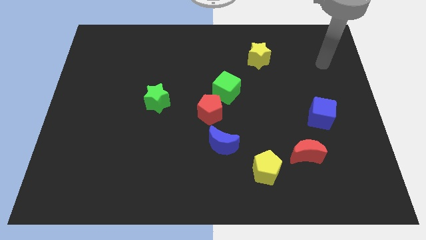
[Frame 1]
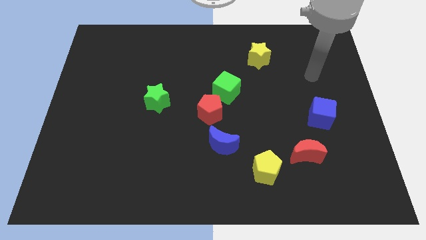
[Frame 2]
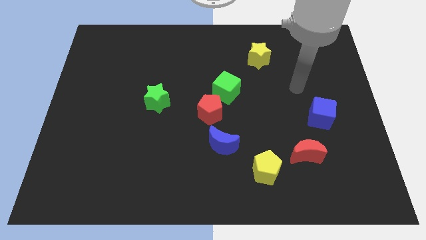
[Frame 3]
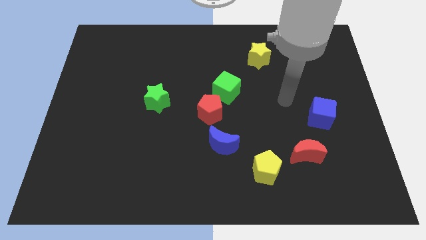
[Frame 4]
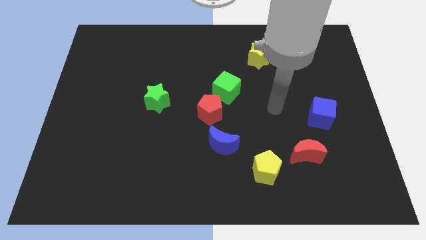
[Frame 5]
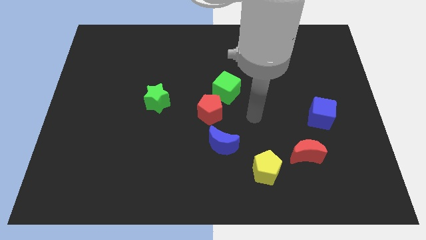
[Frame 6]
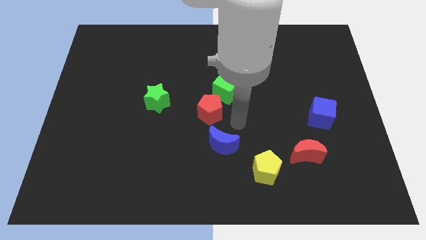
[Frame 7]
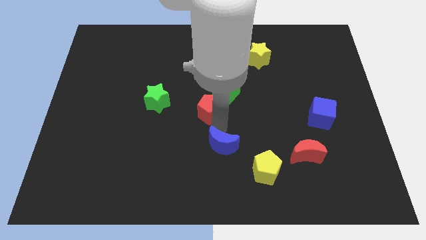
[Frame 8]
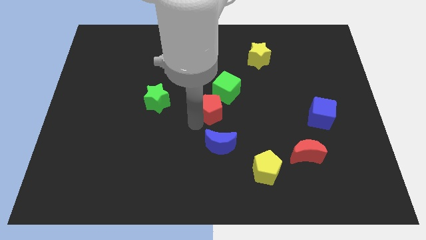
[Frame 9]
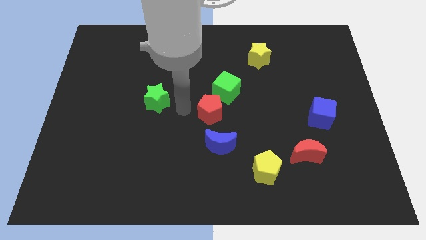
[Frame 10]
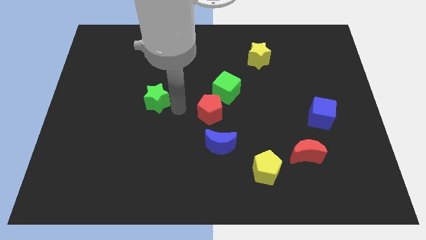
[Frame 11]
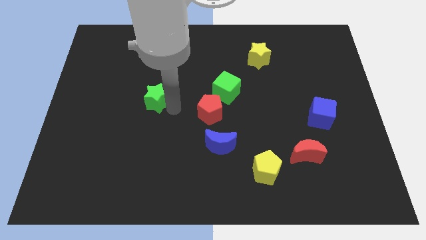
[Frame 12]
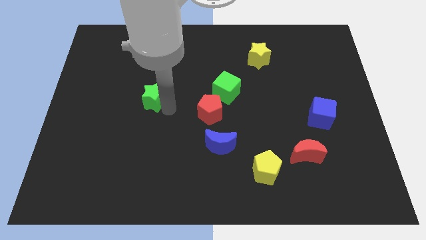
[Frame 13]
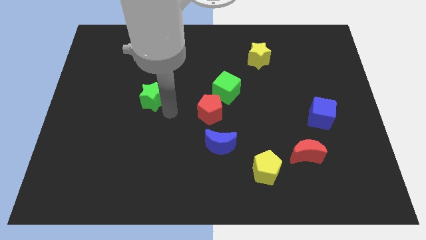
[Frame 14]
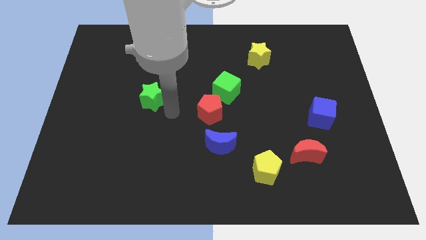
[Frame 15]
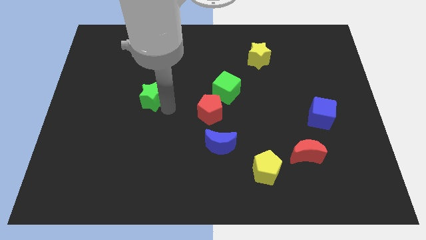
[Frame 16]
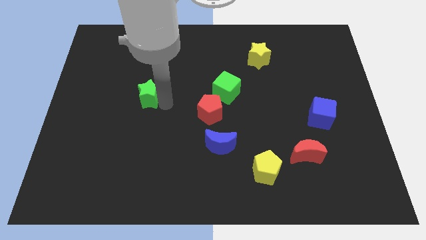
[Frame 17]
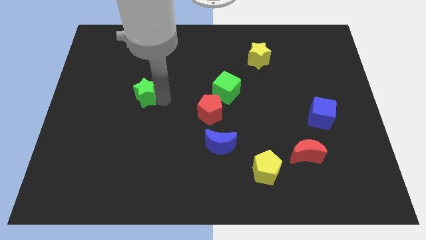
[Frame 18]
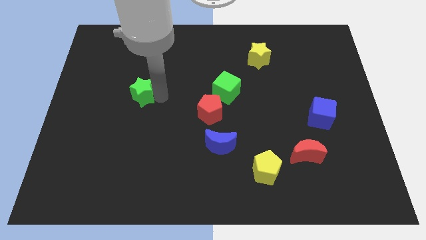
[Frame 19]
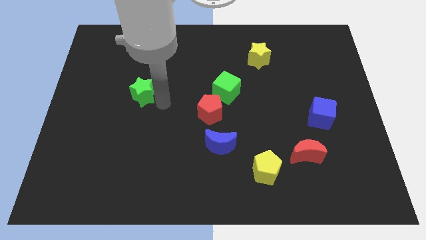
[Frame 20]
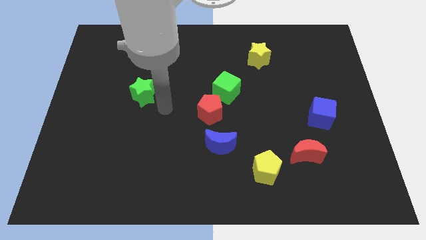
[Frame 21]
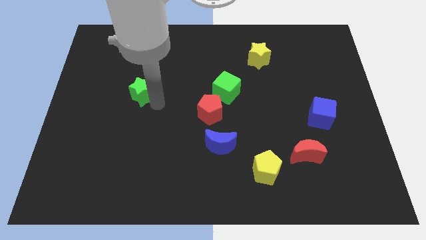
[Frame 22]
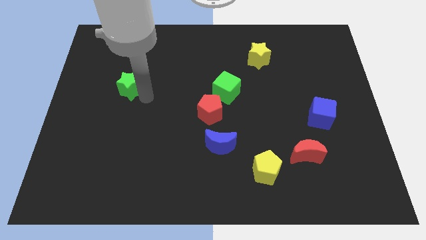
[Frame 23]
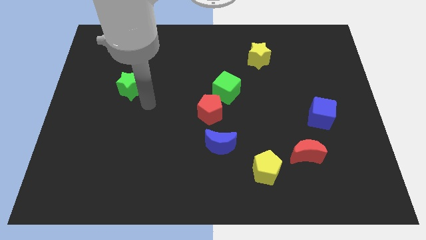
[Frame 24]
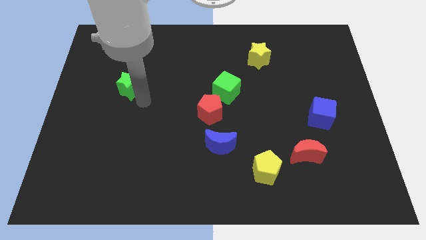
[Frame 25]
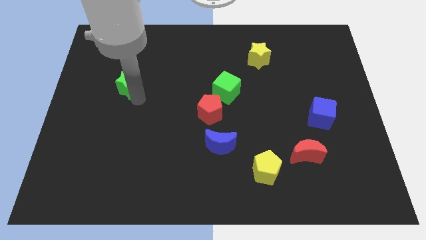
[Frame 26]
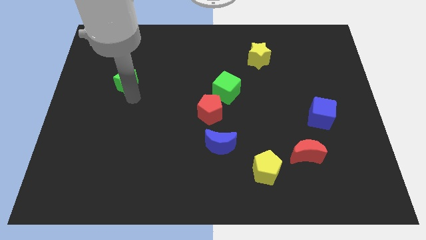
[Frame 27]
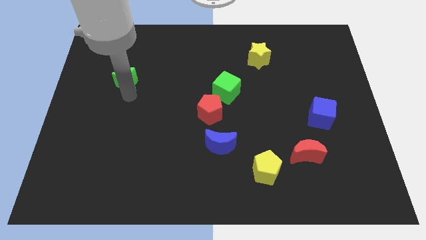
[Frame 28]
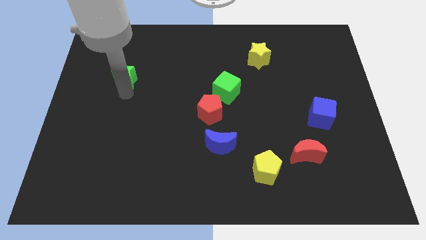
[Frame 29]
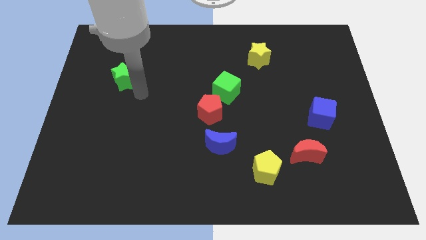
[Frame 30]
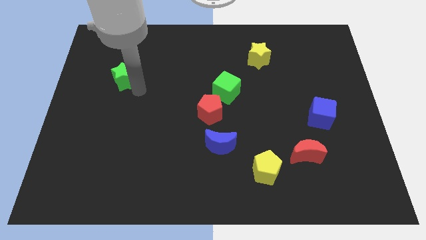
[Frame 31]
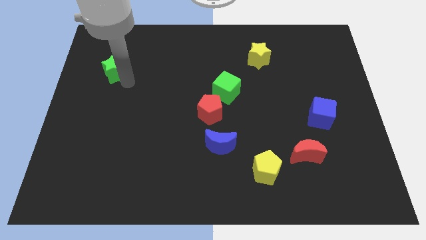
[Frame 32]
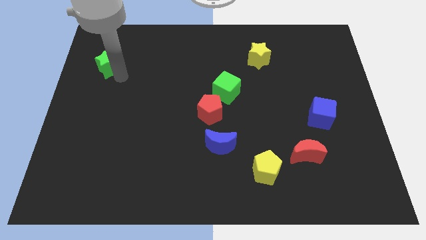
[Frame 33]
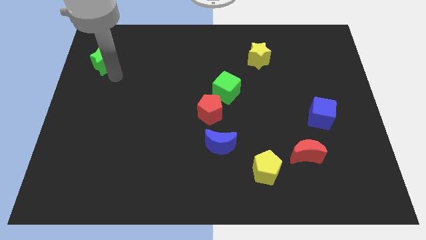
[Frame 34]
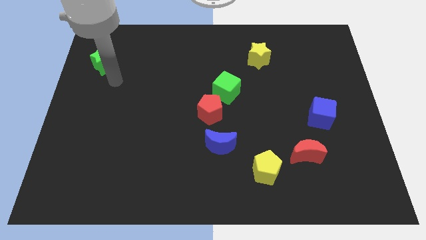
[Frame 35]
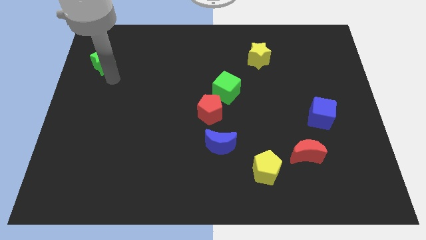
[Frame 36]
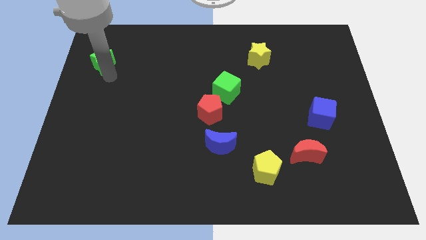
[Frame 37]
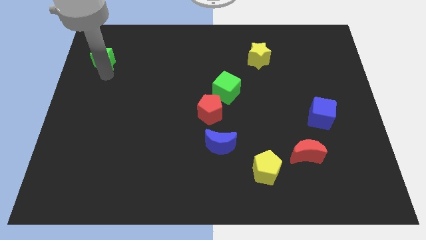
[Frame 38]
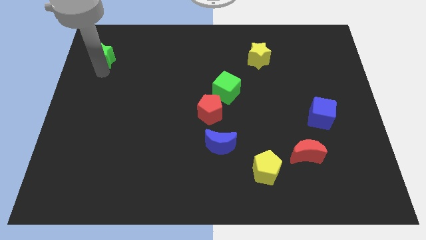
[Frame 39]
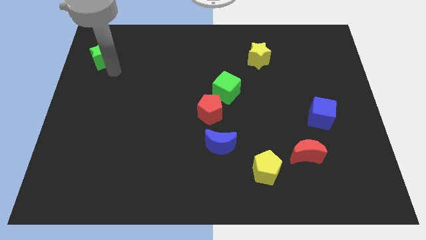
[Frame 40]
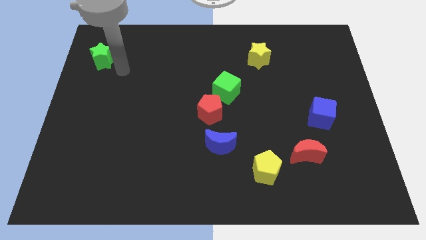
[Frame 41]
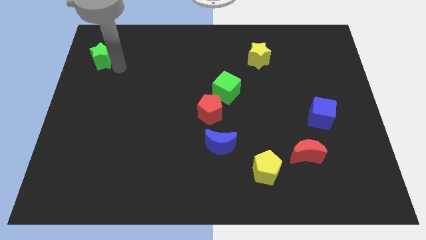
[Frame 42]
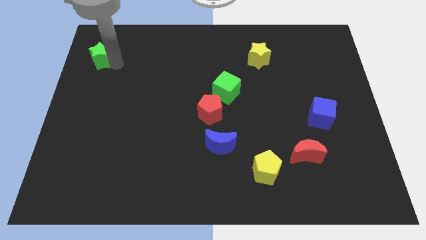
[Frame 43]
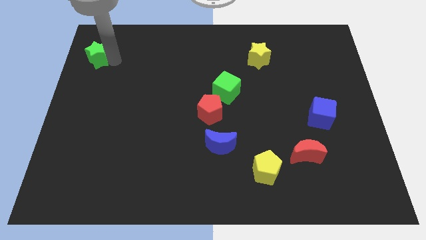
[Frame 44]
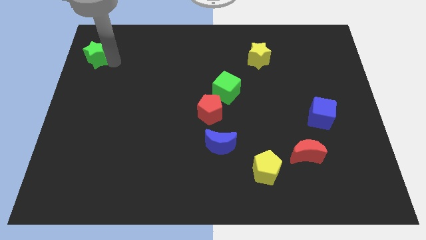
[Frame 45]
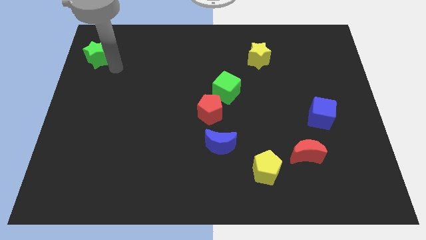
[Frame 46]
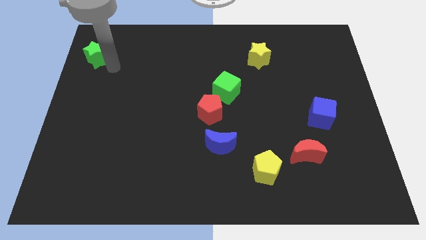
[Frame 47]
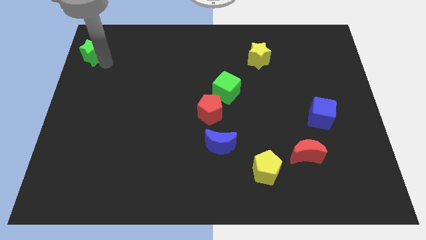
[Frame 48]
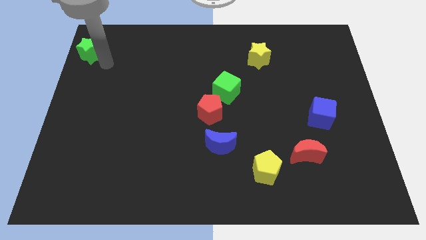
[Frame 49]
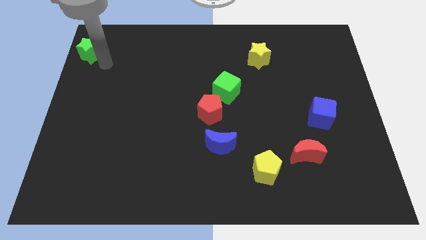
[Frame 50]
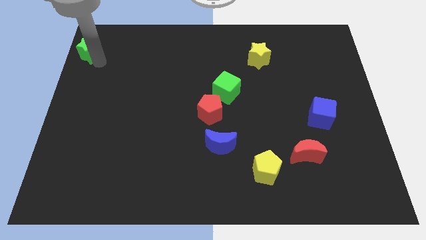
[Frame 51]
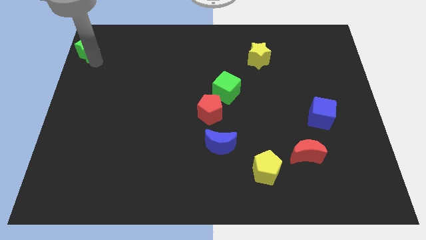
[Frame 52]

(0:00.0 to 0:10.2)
push the green star to the top left of the board

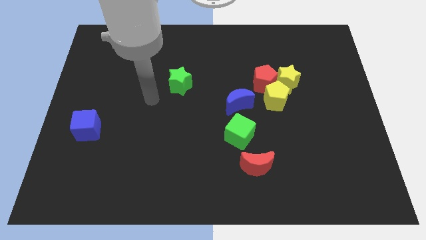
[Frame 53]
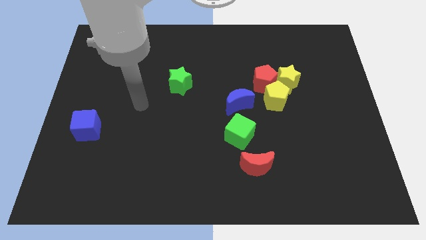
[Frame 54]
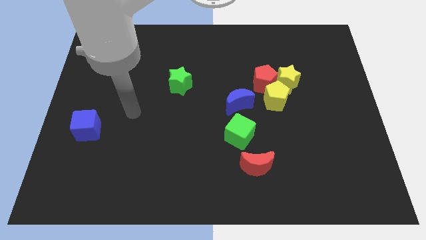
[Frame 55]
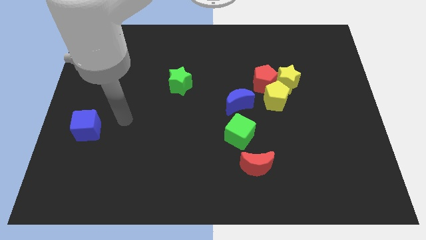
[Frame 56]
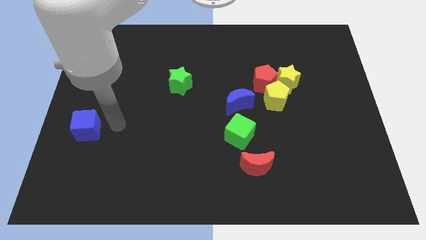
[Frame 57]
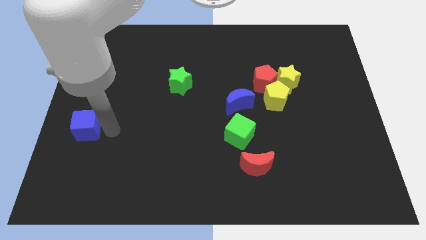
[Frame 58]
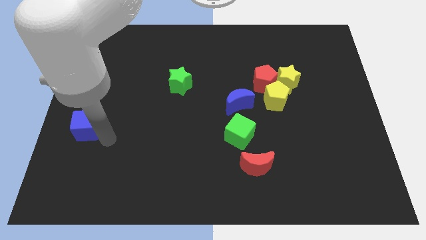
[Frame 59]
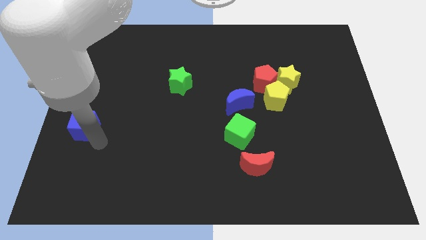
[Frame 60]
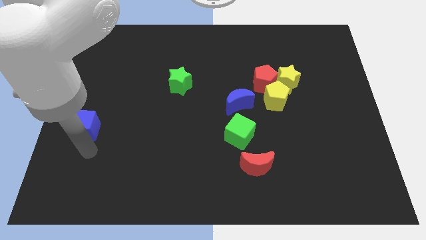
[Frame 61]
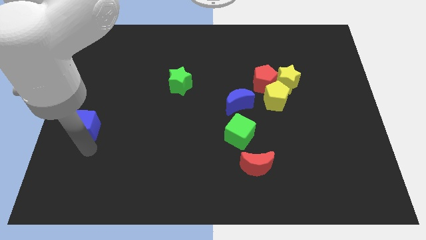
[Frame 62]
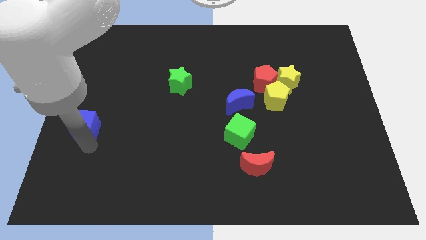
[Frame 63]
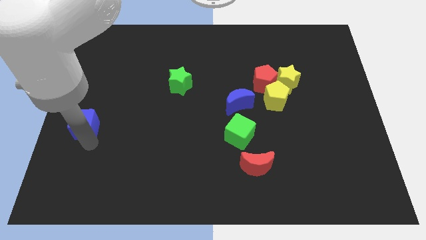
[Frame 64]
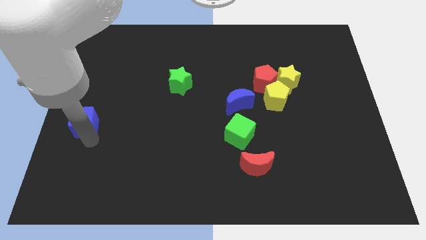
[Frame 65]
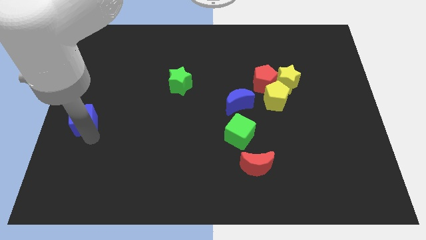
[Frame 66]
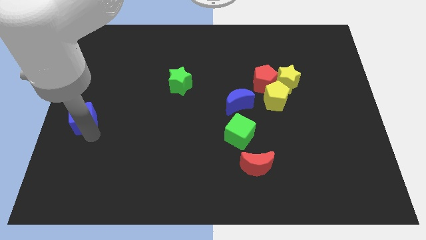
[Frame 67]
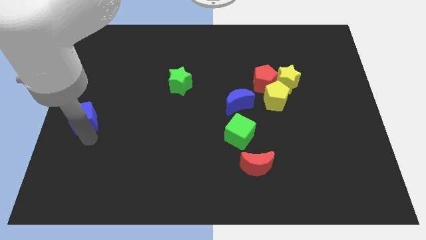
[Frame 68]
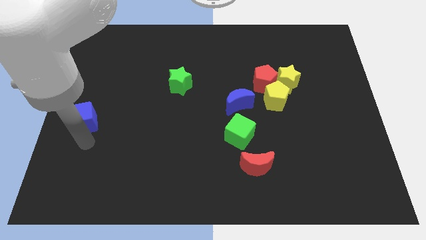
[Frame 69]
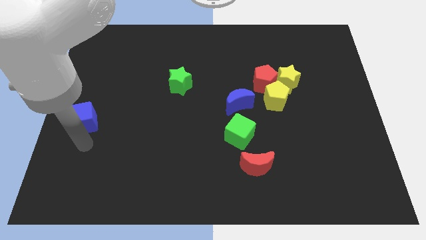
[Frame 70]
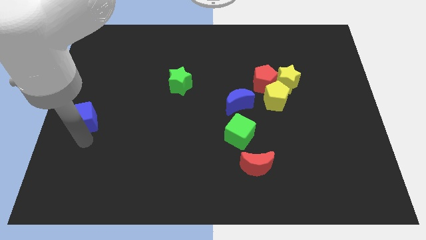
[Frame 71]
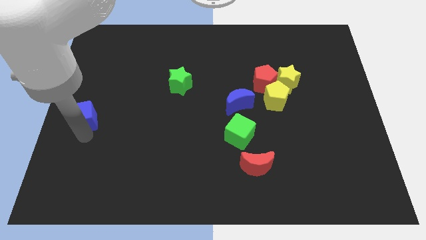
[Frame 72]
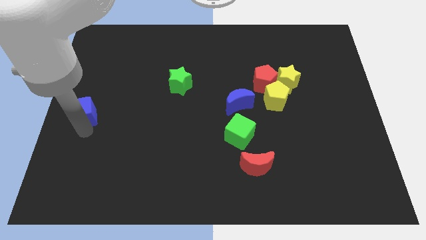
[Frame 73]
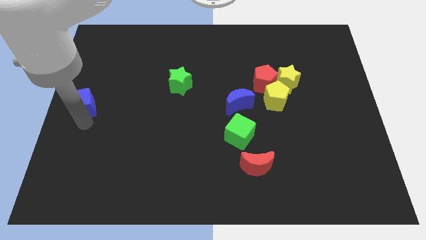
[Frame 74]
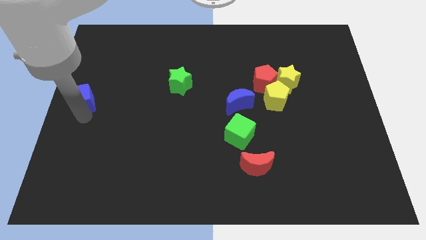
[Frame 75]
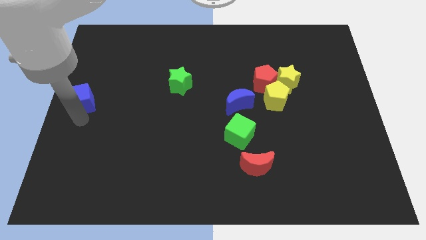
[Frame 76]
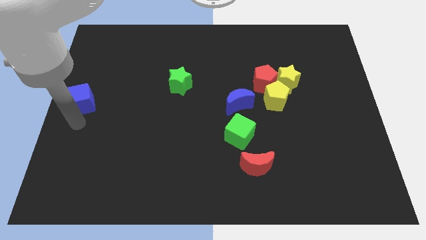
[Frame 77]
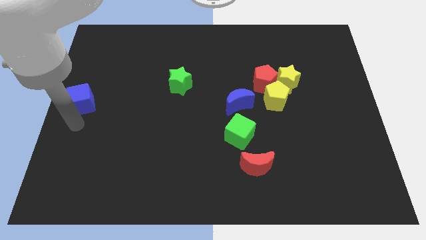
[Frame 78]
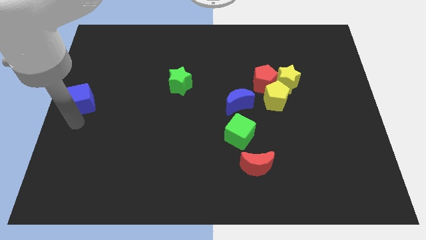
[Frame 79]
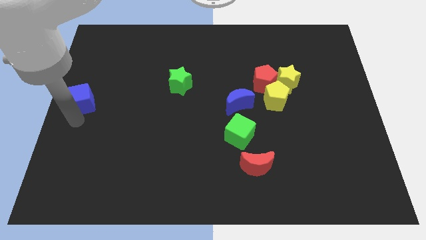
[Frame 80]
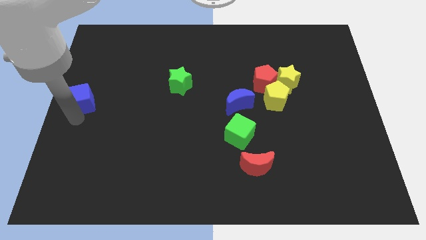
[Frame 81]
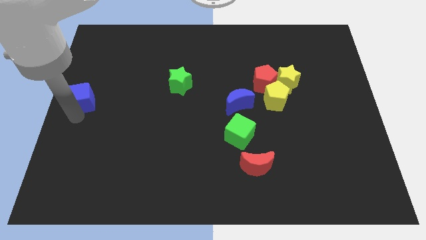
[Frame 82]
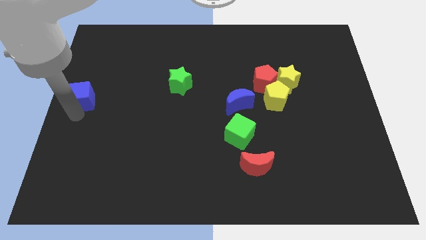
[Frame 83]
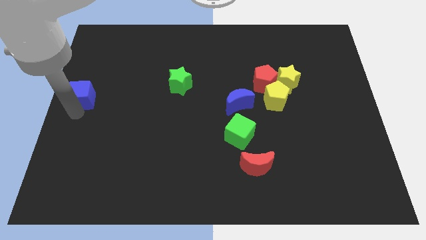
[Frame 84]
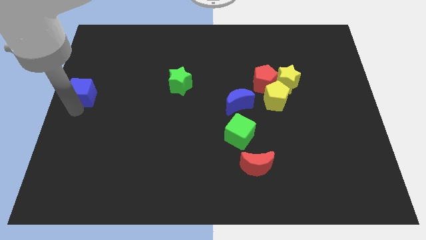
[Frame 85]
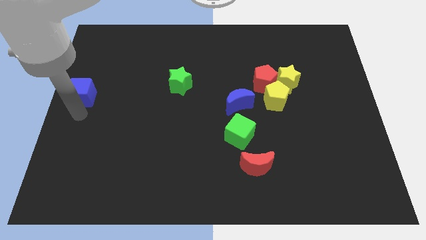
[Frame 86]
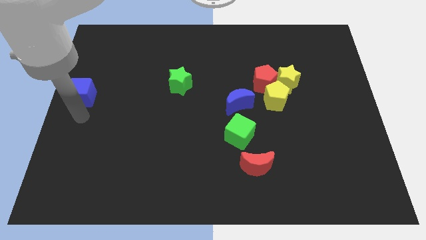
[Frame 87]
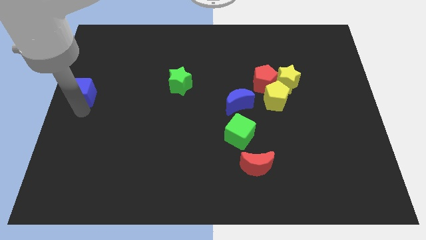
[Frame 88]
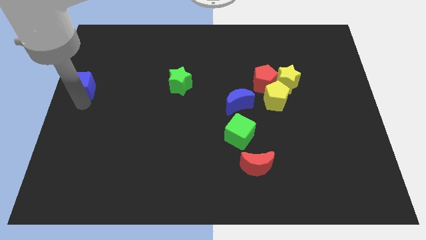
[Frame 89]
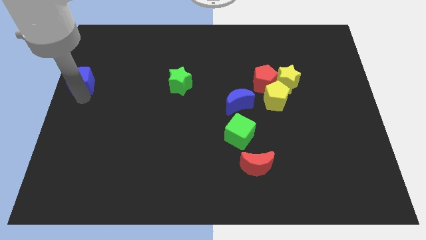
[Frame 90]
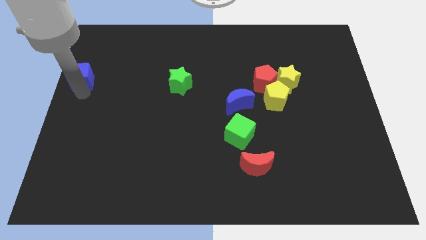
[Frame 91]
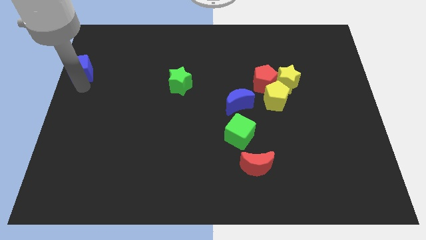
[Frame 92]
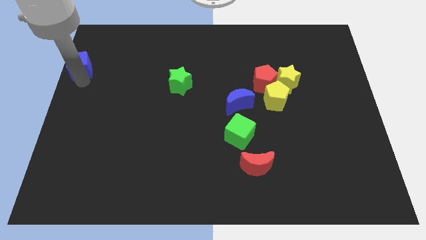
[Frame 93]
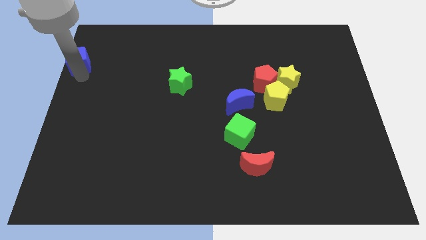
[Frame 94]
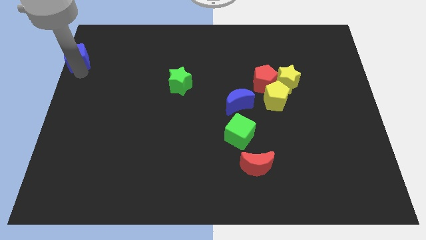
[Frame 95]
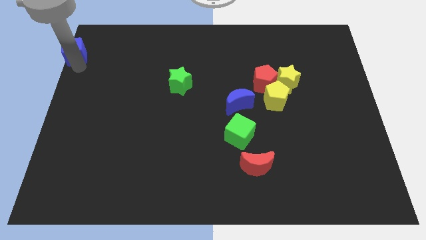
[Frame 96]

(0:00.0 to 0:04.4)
put the blue cube to the top left of the board
